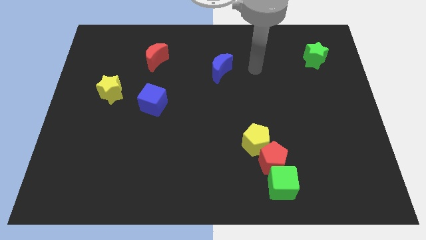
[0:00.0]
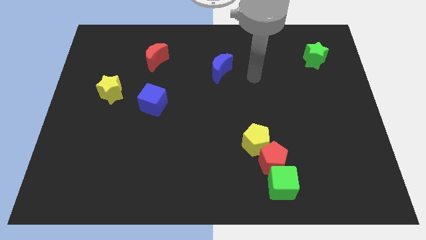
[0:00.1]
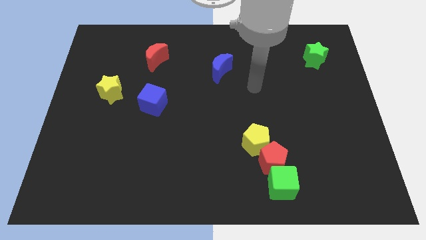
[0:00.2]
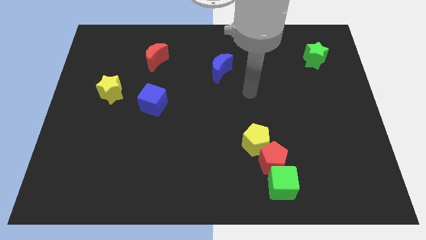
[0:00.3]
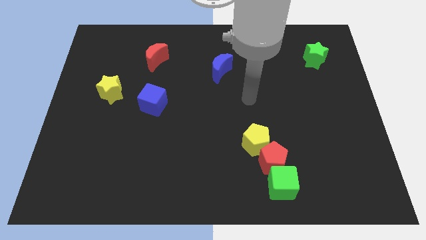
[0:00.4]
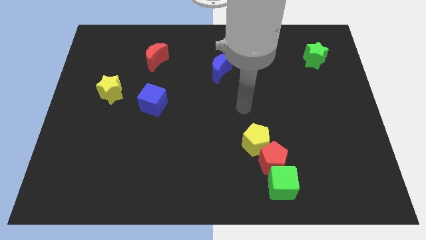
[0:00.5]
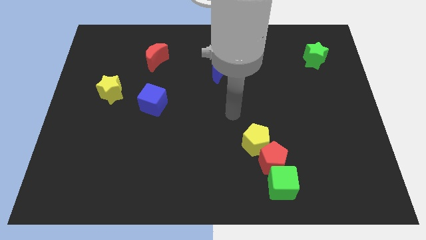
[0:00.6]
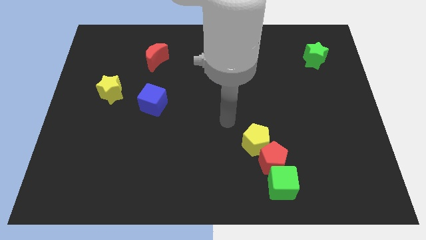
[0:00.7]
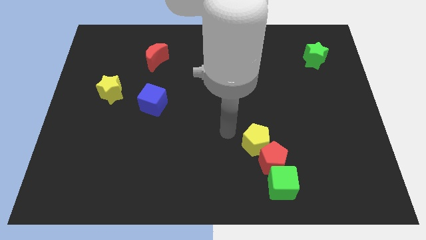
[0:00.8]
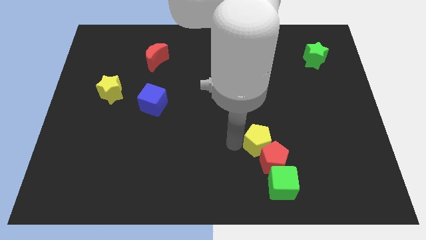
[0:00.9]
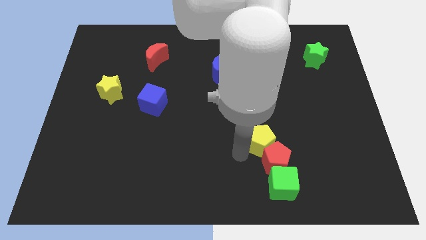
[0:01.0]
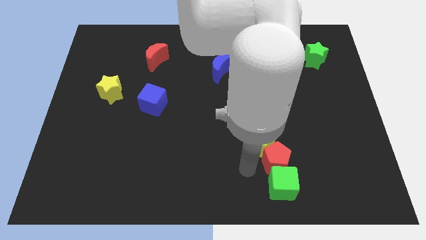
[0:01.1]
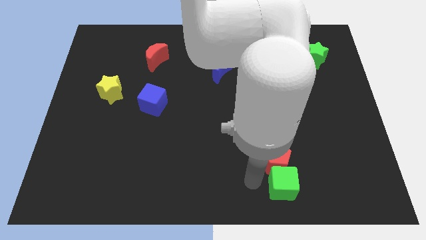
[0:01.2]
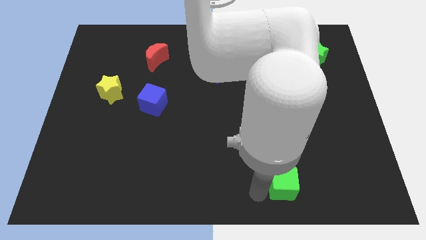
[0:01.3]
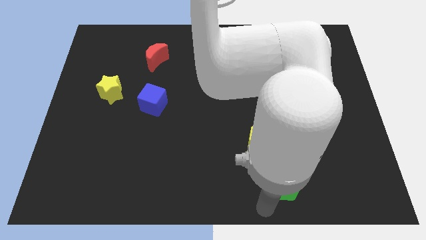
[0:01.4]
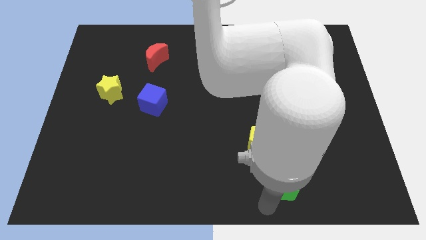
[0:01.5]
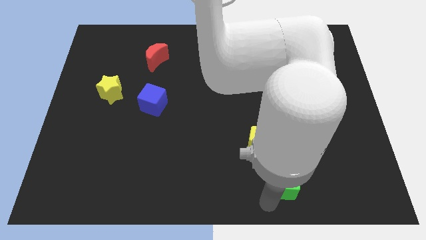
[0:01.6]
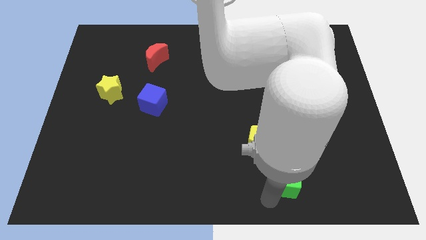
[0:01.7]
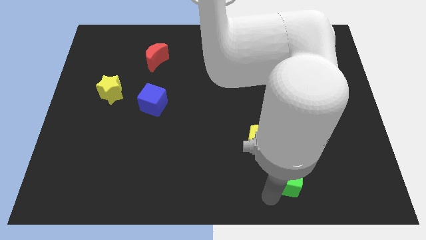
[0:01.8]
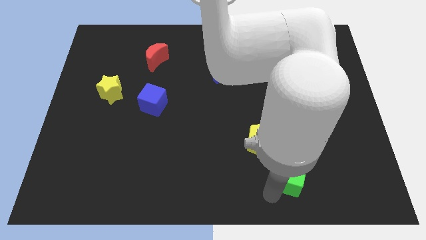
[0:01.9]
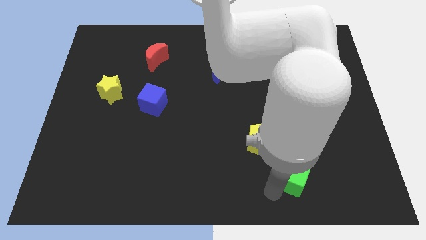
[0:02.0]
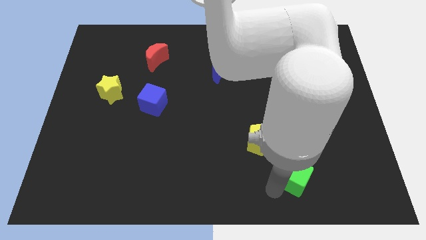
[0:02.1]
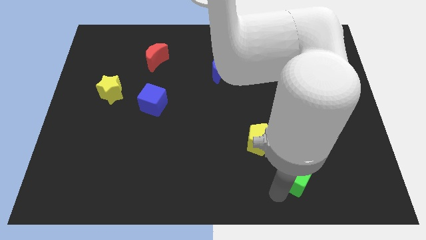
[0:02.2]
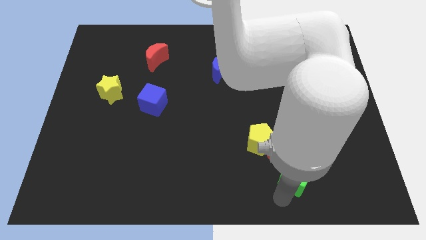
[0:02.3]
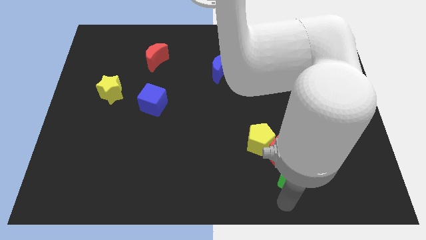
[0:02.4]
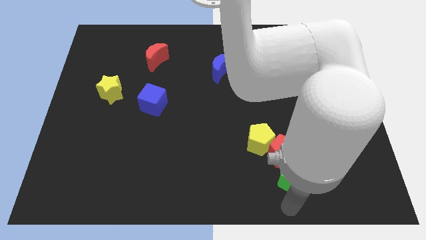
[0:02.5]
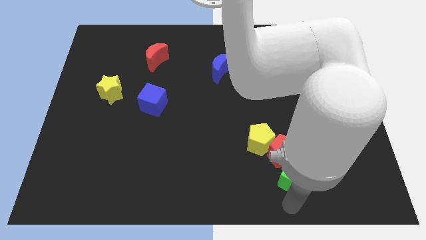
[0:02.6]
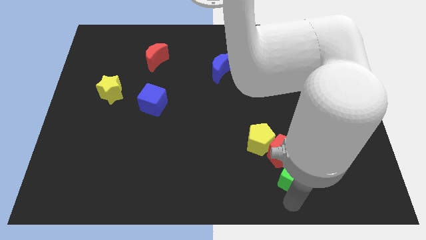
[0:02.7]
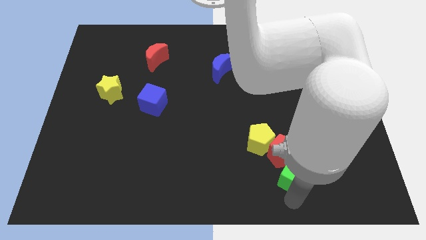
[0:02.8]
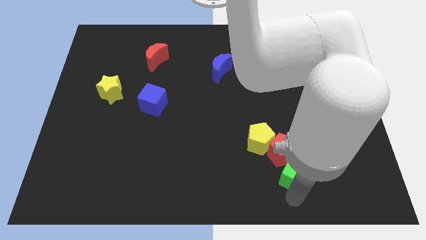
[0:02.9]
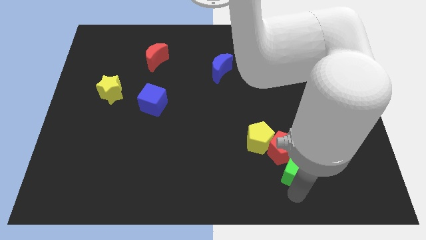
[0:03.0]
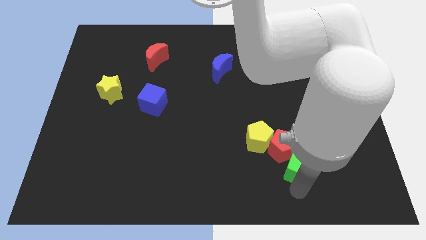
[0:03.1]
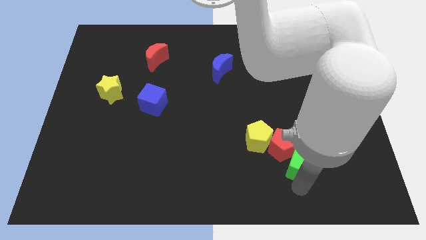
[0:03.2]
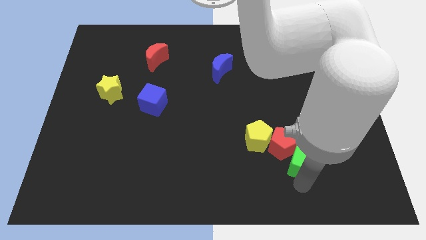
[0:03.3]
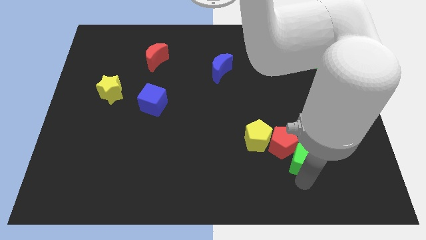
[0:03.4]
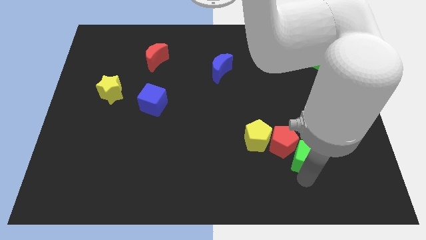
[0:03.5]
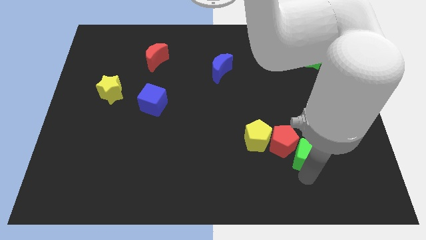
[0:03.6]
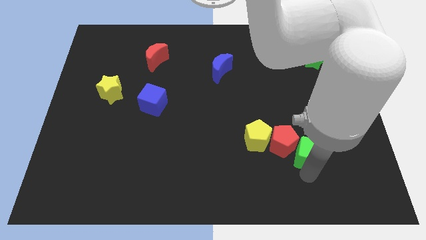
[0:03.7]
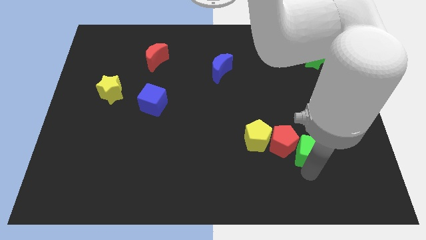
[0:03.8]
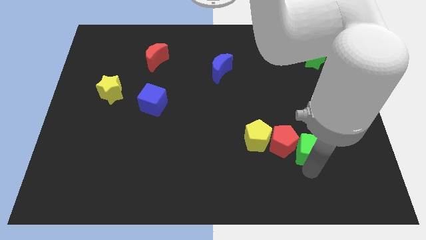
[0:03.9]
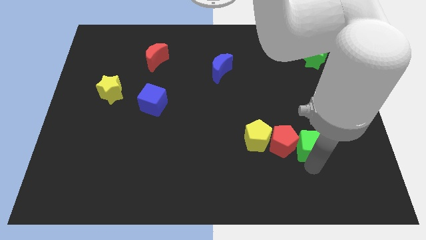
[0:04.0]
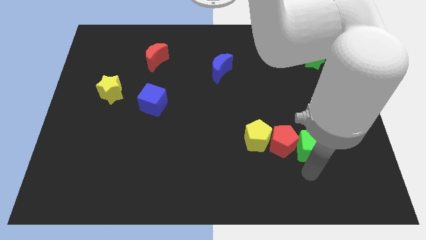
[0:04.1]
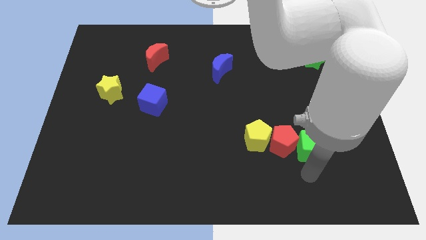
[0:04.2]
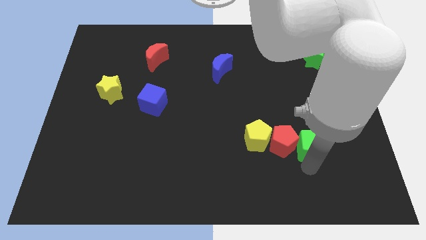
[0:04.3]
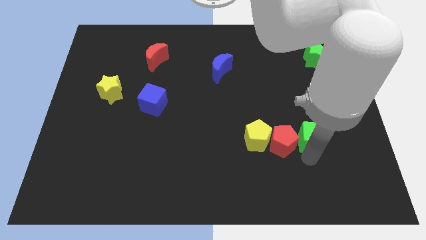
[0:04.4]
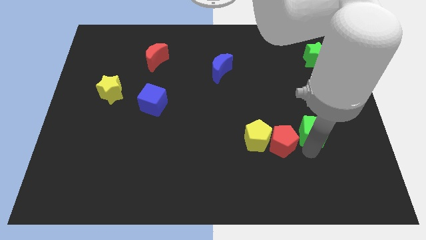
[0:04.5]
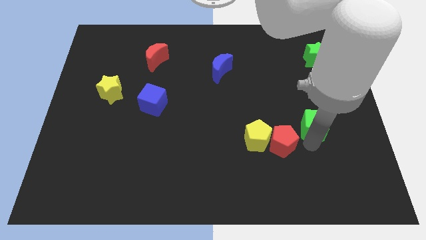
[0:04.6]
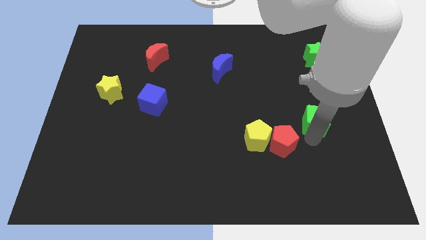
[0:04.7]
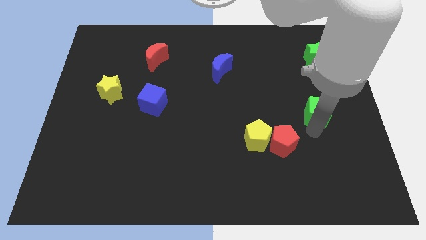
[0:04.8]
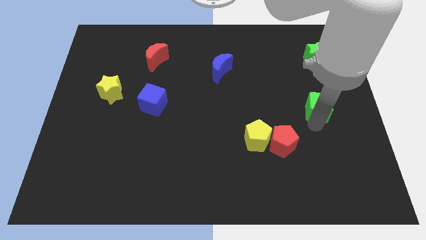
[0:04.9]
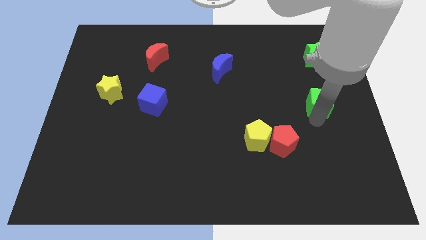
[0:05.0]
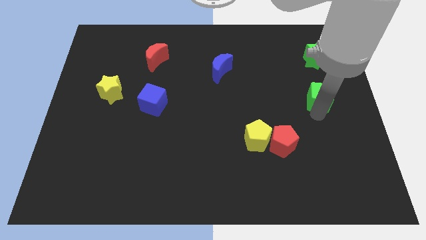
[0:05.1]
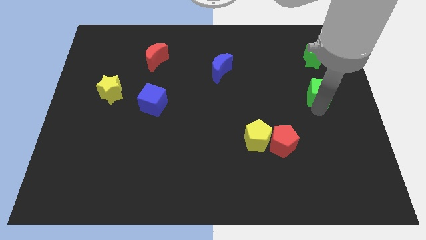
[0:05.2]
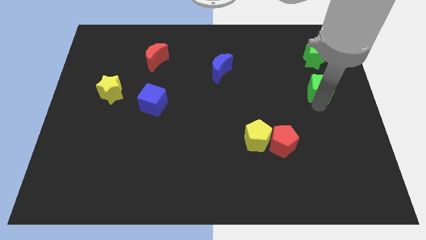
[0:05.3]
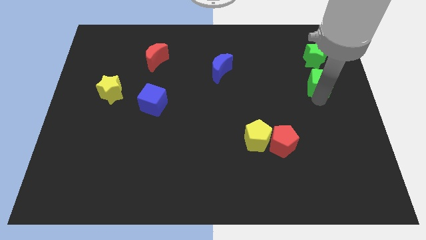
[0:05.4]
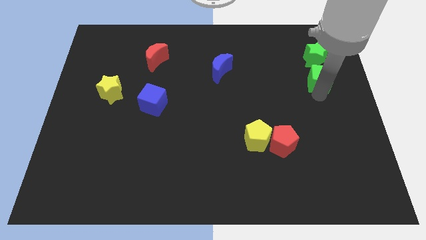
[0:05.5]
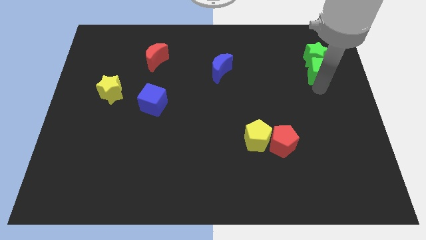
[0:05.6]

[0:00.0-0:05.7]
push the green cube towards the green star
